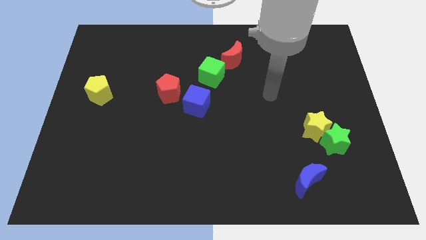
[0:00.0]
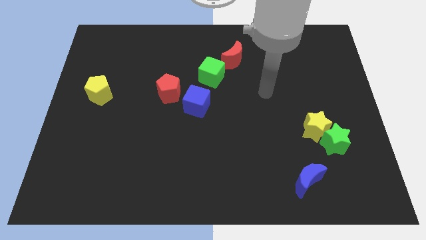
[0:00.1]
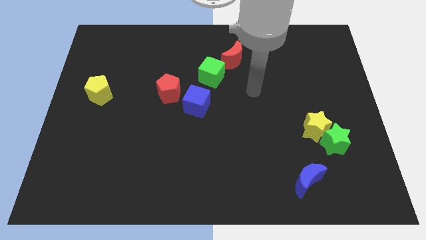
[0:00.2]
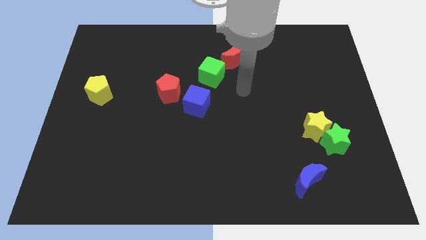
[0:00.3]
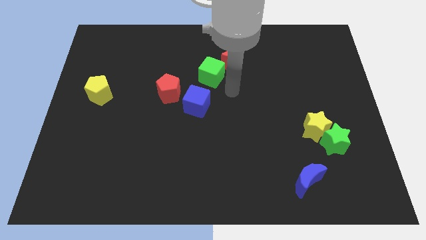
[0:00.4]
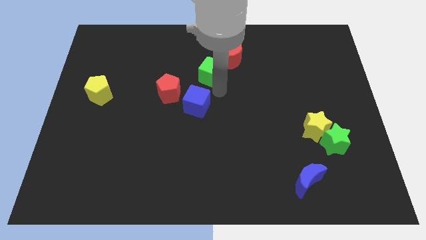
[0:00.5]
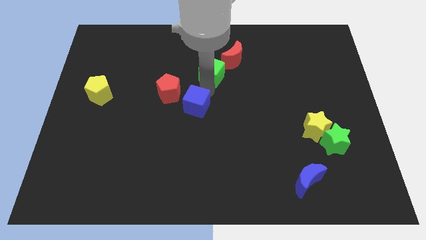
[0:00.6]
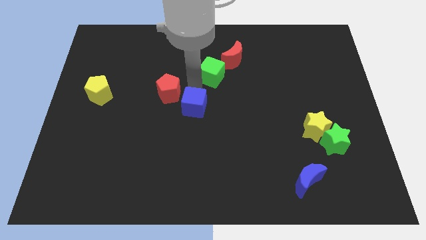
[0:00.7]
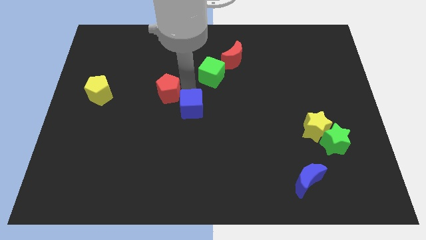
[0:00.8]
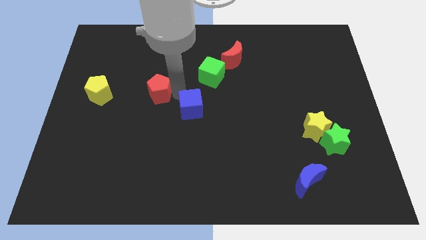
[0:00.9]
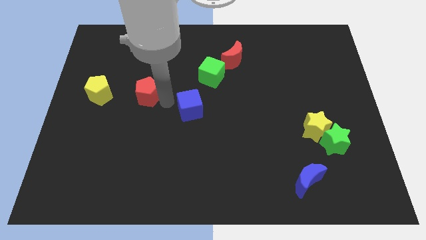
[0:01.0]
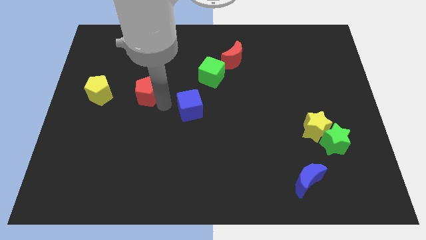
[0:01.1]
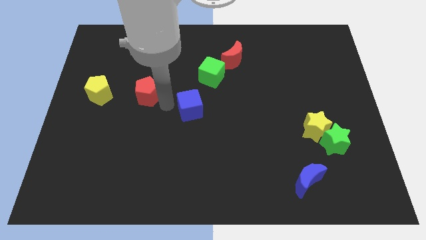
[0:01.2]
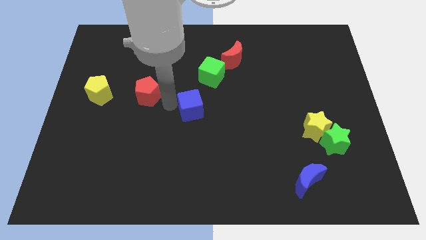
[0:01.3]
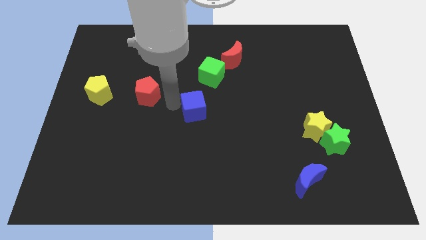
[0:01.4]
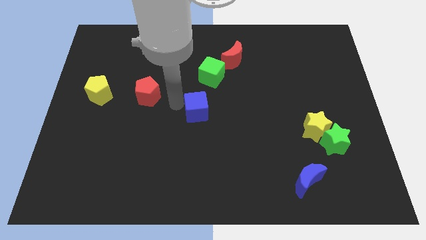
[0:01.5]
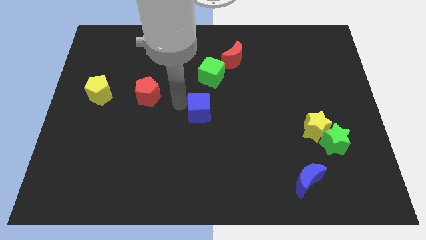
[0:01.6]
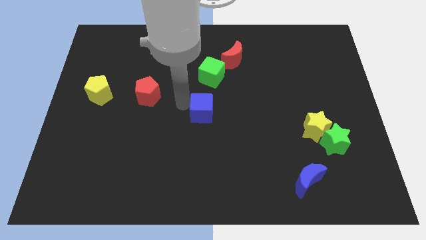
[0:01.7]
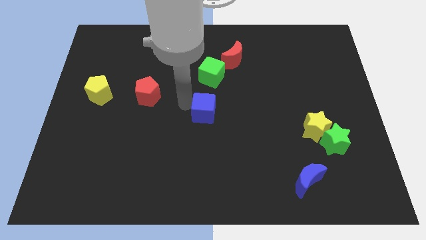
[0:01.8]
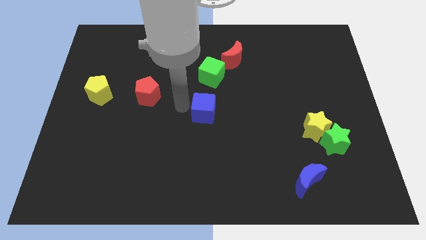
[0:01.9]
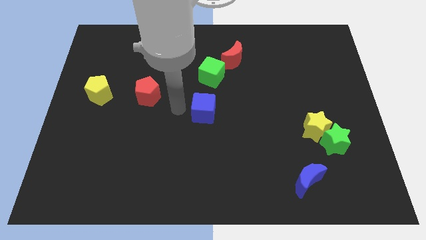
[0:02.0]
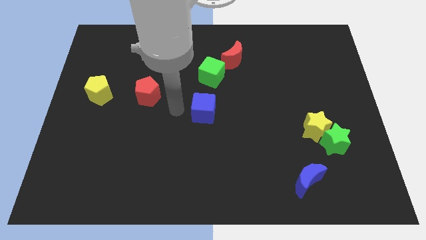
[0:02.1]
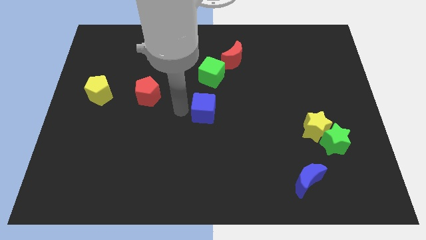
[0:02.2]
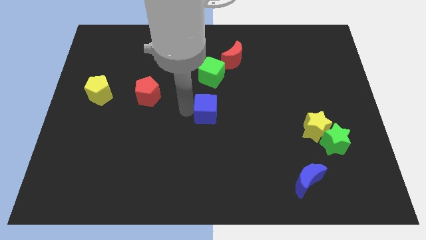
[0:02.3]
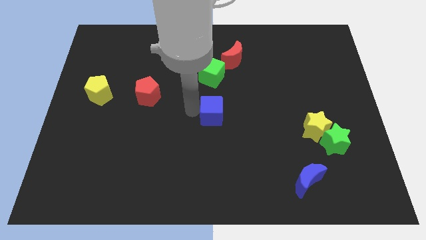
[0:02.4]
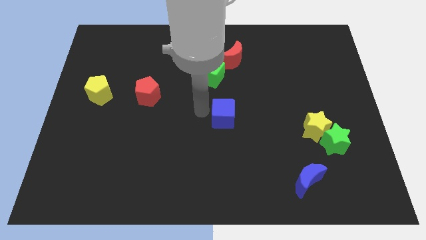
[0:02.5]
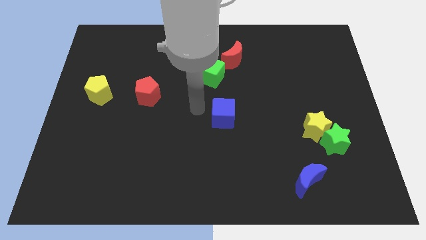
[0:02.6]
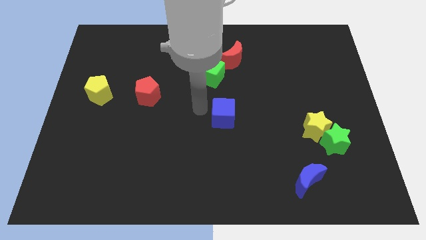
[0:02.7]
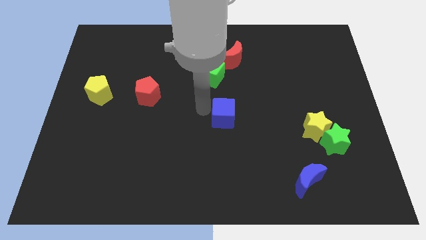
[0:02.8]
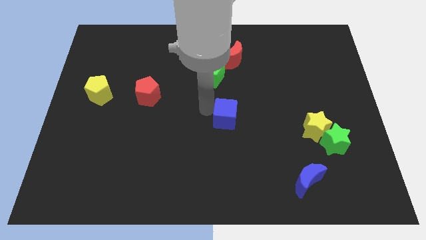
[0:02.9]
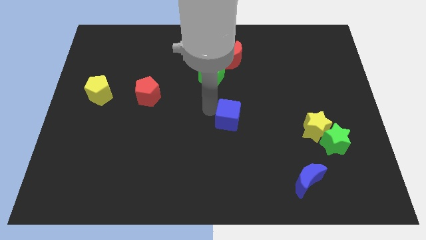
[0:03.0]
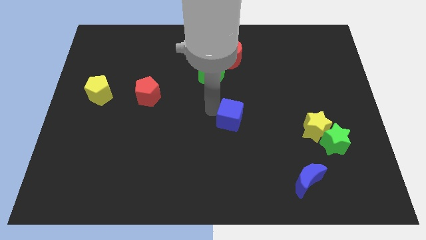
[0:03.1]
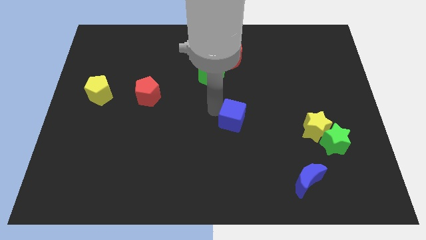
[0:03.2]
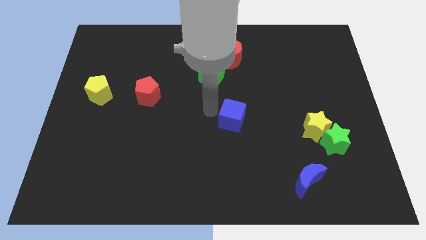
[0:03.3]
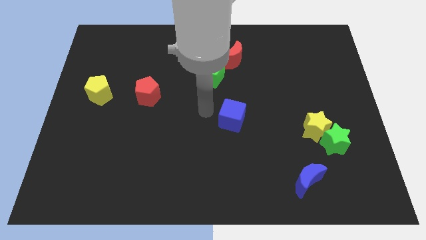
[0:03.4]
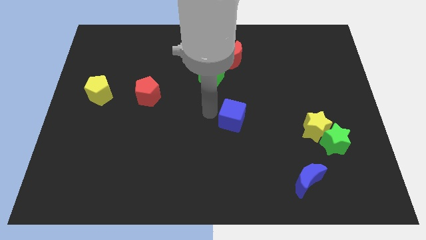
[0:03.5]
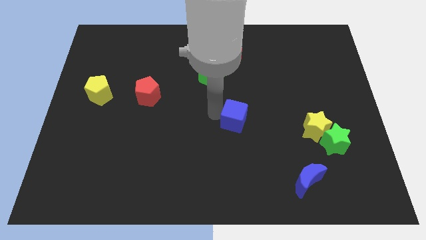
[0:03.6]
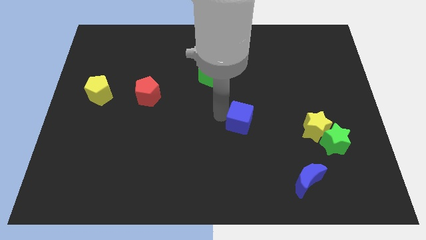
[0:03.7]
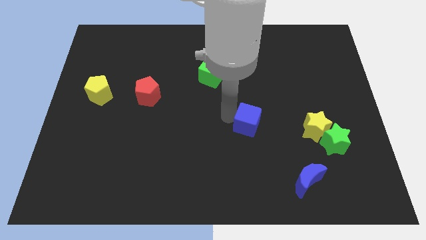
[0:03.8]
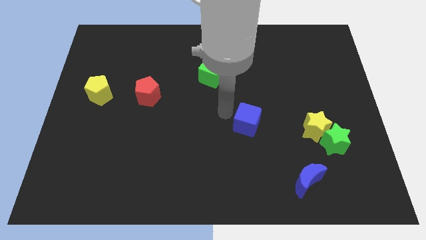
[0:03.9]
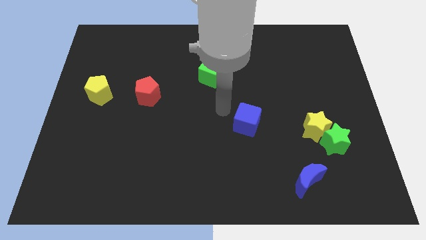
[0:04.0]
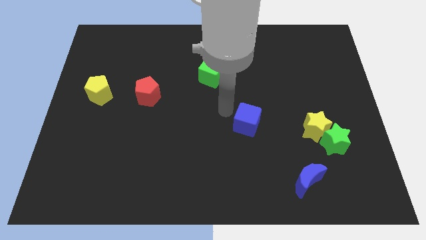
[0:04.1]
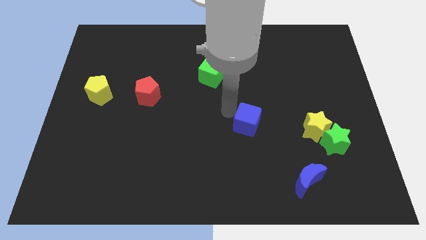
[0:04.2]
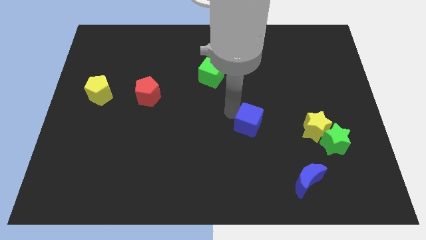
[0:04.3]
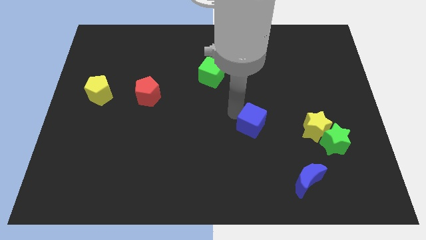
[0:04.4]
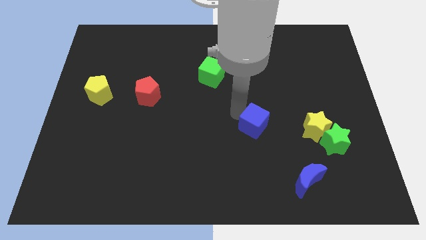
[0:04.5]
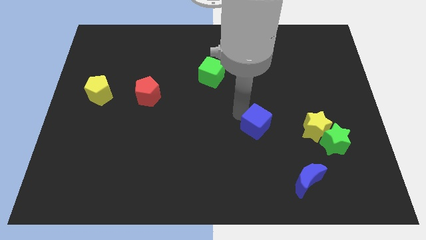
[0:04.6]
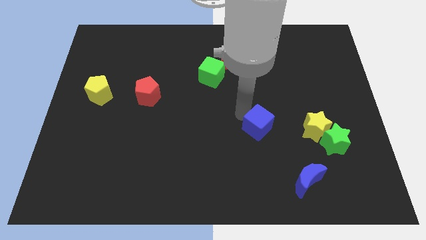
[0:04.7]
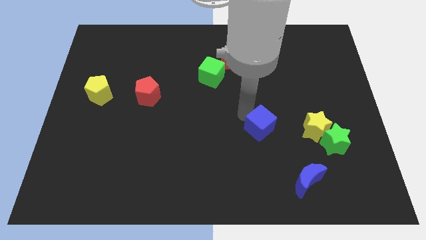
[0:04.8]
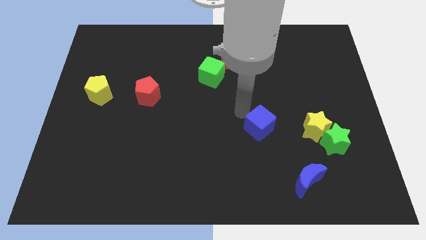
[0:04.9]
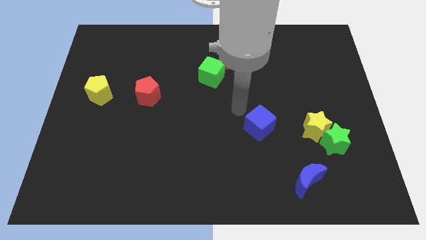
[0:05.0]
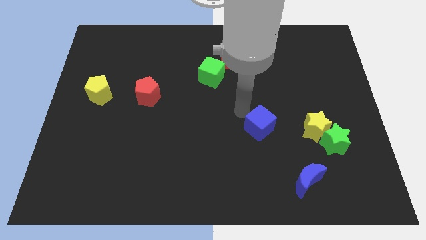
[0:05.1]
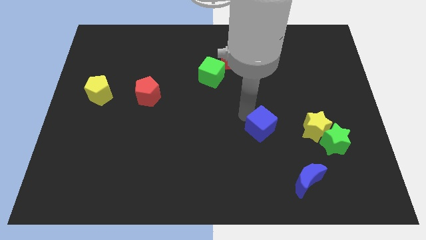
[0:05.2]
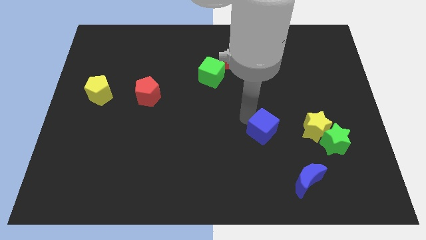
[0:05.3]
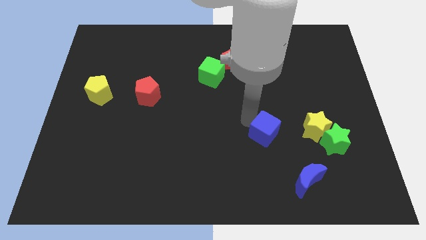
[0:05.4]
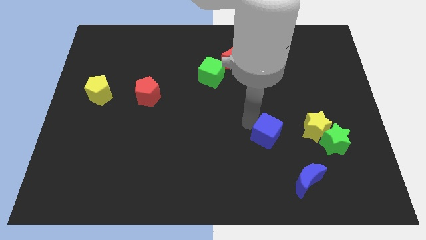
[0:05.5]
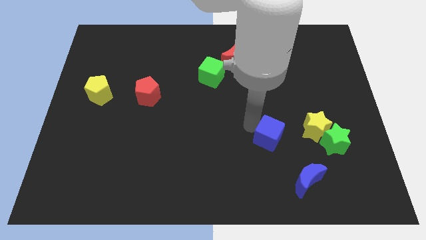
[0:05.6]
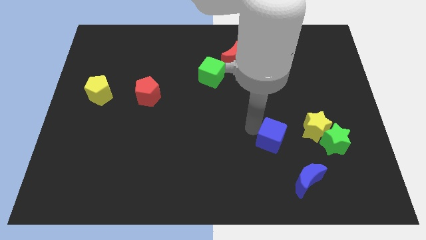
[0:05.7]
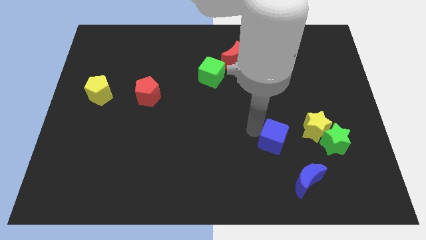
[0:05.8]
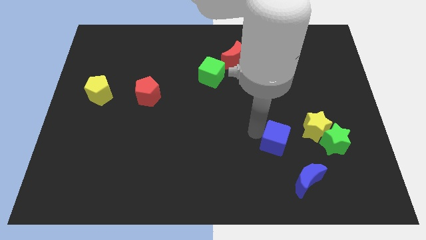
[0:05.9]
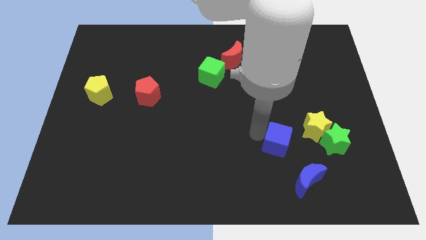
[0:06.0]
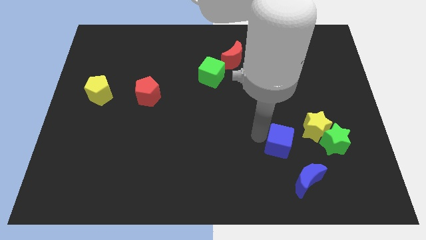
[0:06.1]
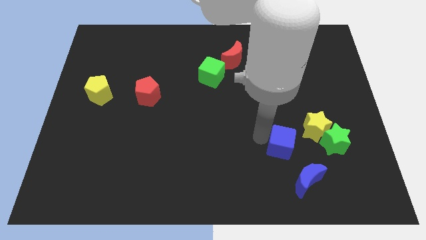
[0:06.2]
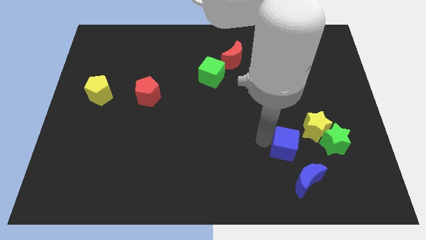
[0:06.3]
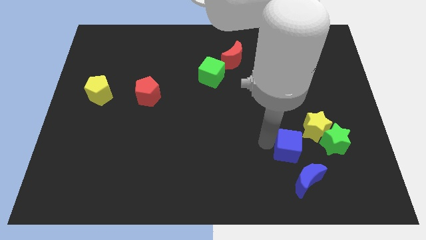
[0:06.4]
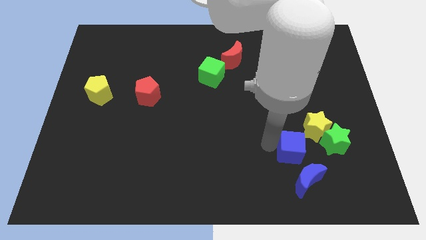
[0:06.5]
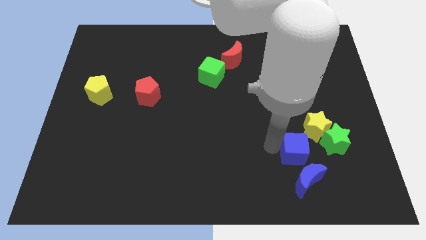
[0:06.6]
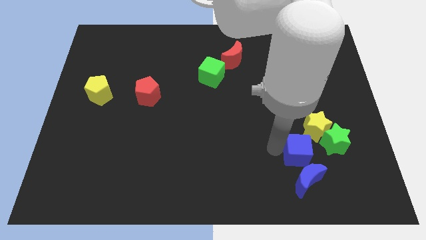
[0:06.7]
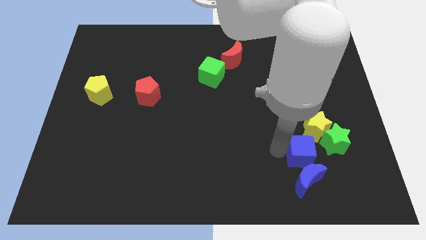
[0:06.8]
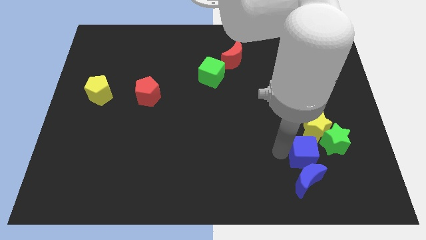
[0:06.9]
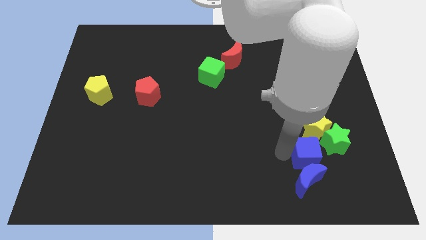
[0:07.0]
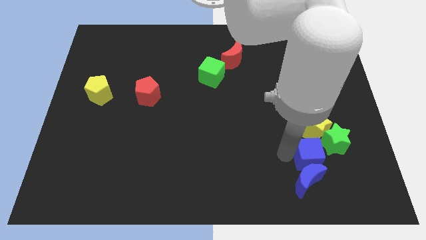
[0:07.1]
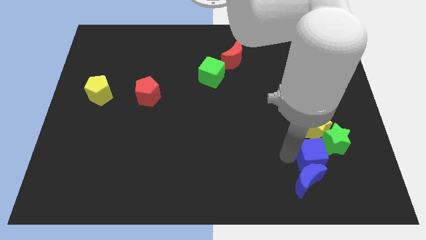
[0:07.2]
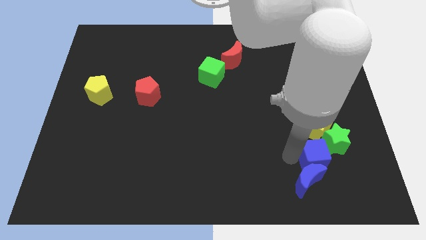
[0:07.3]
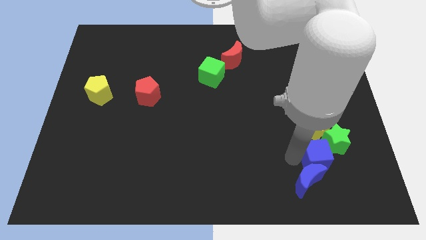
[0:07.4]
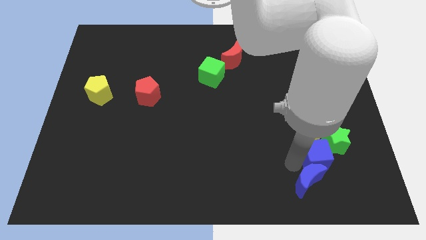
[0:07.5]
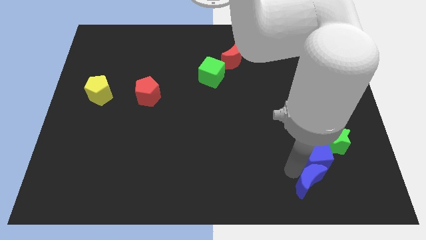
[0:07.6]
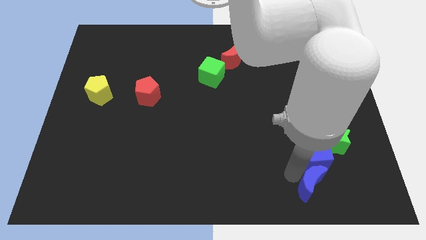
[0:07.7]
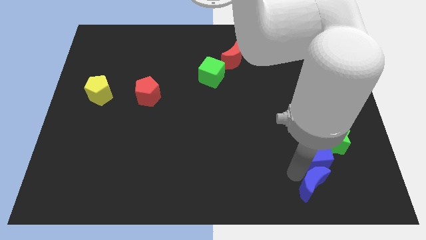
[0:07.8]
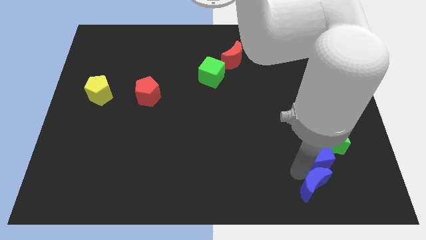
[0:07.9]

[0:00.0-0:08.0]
slide the blue cube to the green star
